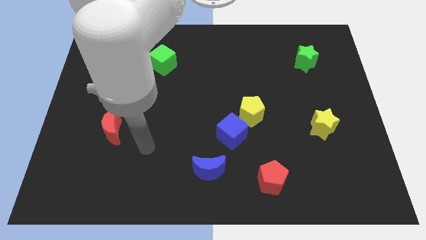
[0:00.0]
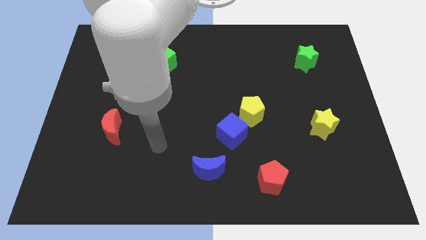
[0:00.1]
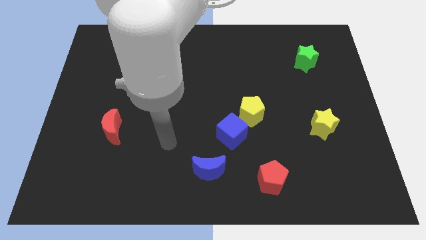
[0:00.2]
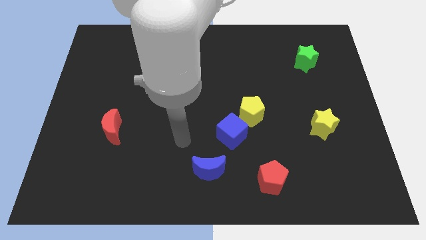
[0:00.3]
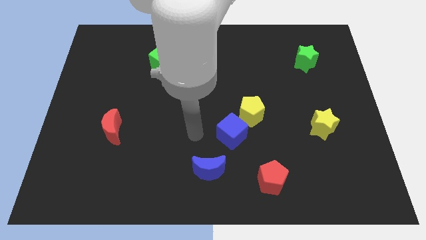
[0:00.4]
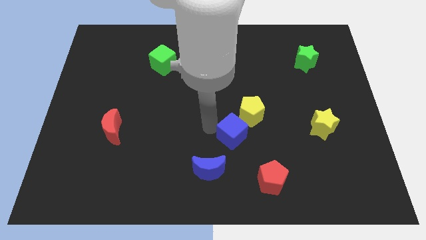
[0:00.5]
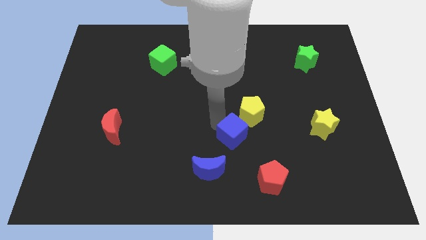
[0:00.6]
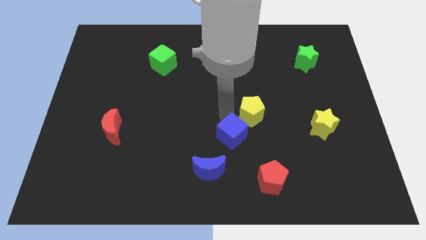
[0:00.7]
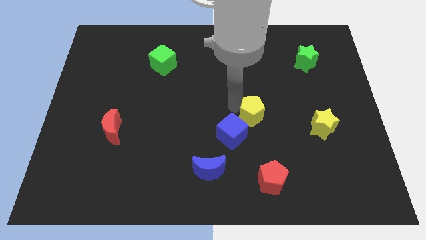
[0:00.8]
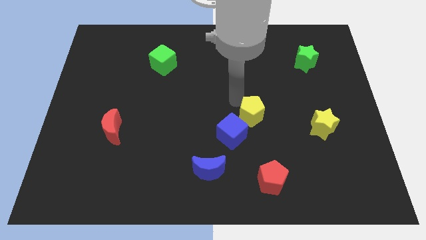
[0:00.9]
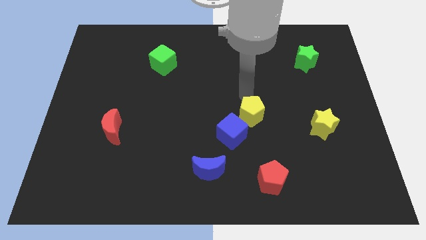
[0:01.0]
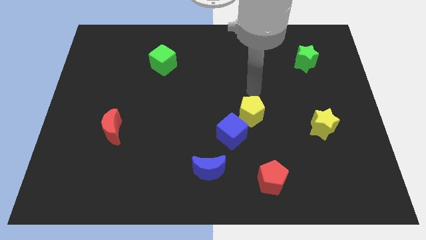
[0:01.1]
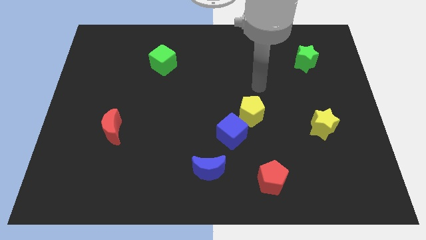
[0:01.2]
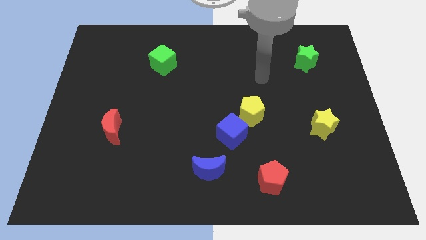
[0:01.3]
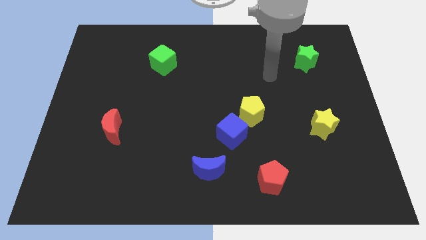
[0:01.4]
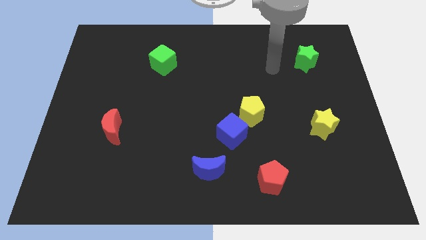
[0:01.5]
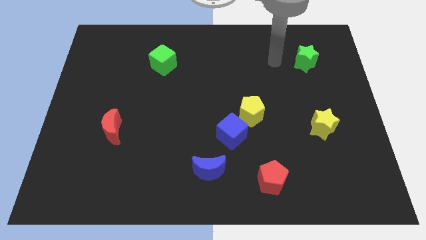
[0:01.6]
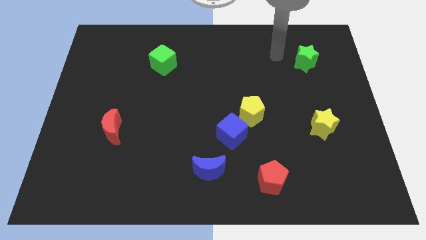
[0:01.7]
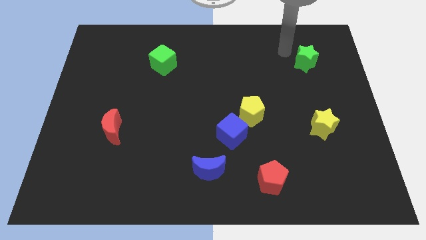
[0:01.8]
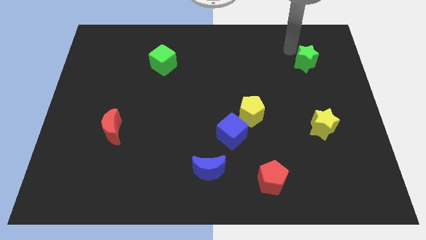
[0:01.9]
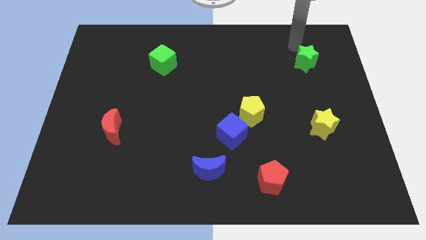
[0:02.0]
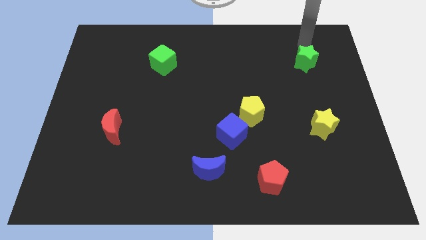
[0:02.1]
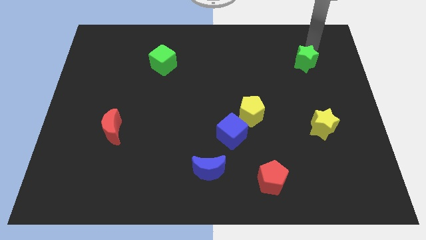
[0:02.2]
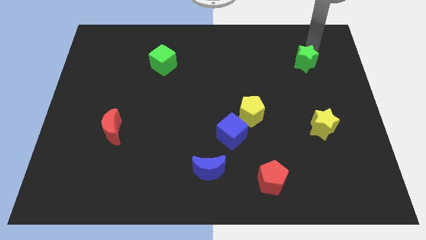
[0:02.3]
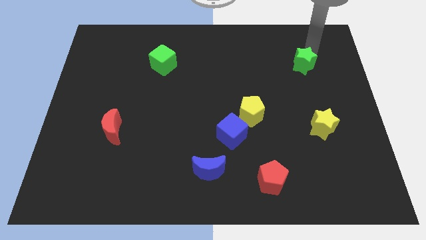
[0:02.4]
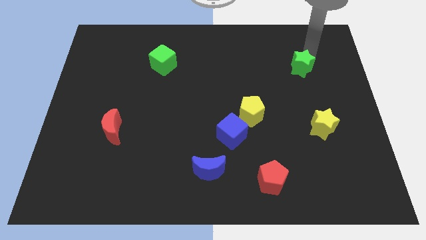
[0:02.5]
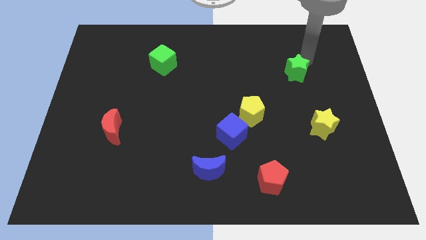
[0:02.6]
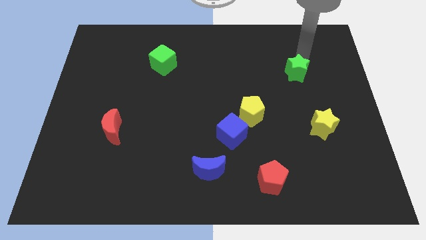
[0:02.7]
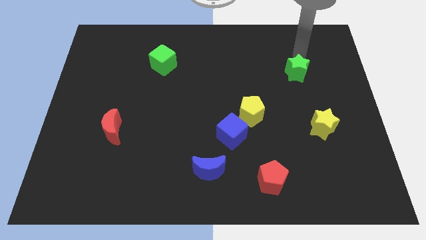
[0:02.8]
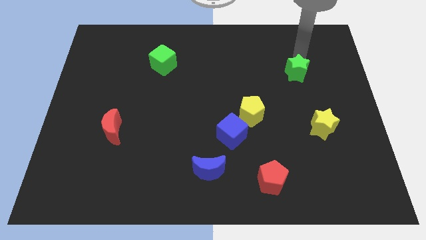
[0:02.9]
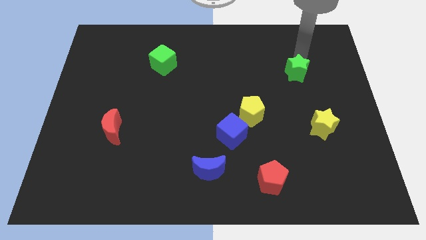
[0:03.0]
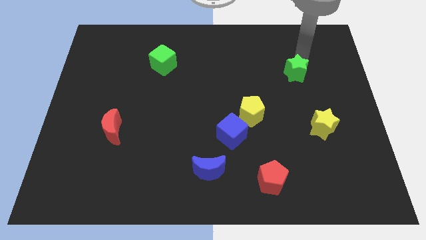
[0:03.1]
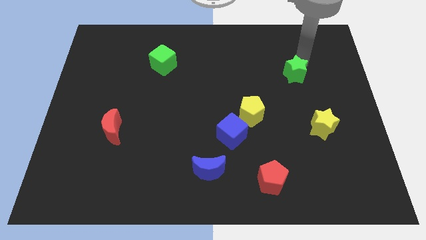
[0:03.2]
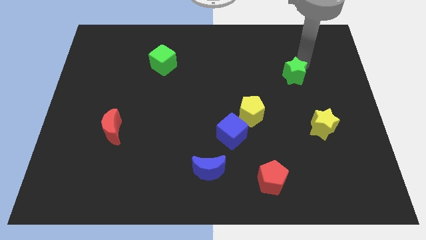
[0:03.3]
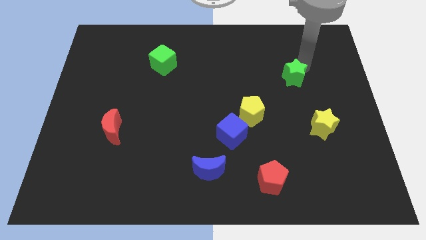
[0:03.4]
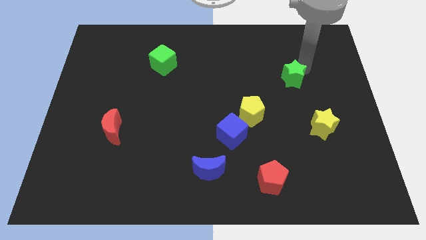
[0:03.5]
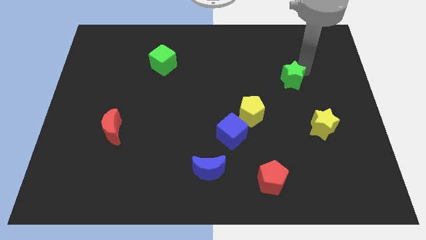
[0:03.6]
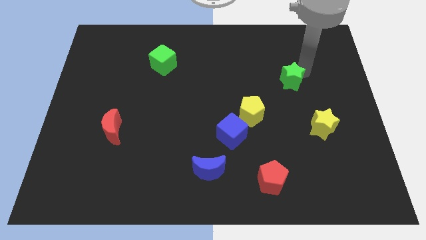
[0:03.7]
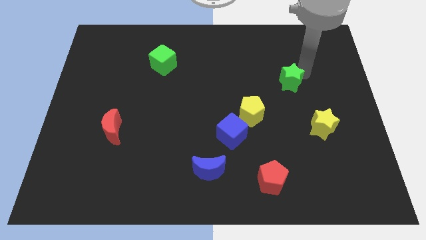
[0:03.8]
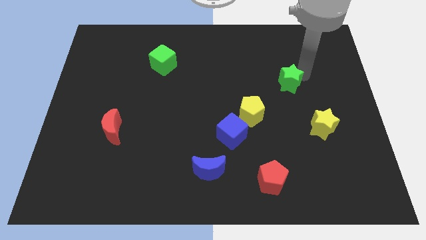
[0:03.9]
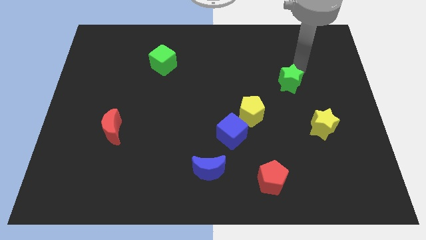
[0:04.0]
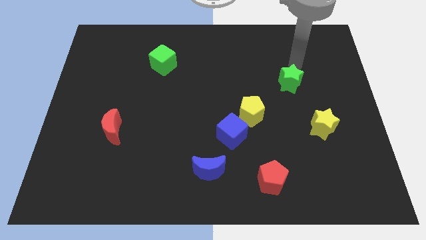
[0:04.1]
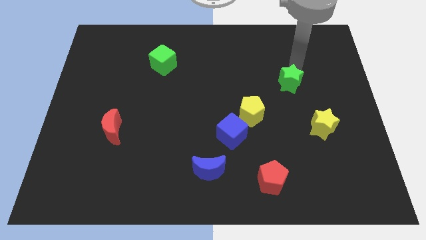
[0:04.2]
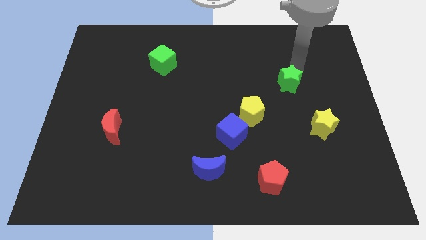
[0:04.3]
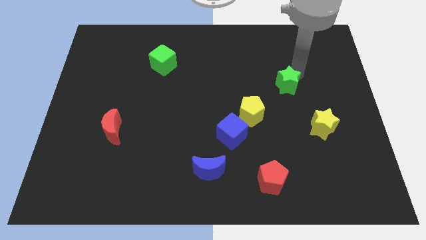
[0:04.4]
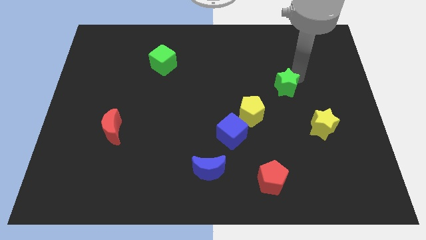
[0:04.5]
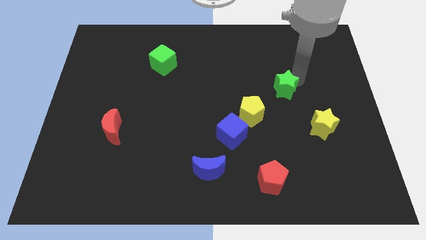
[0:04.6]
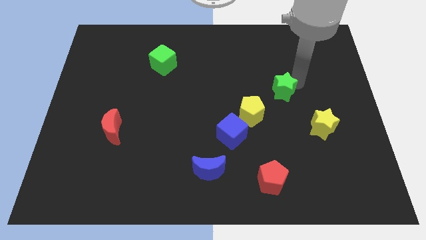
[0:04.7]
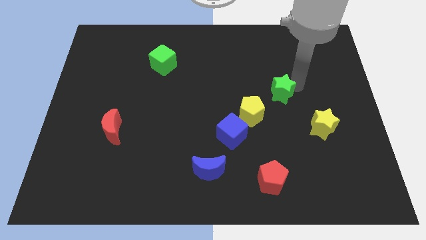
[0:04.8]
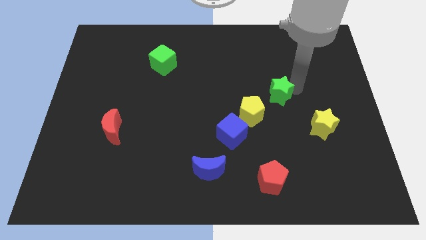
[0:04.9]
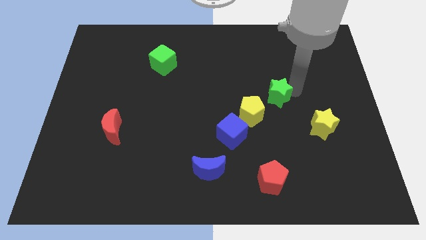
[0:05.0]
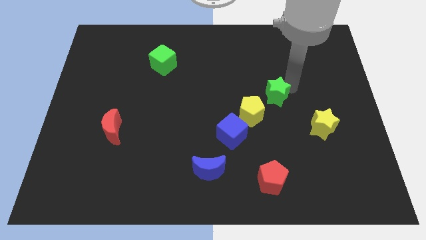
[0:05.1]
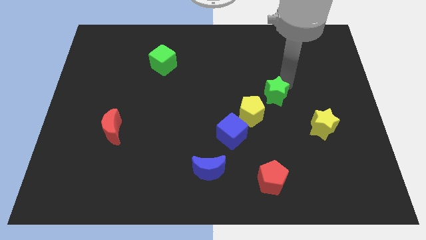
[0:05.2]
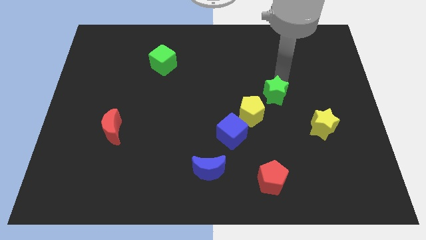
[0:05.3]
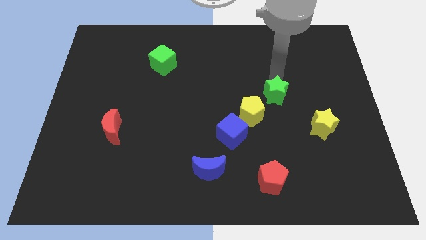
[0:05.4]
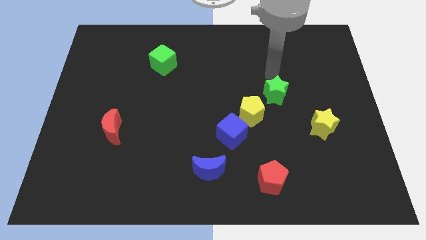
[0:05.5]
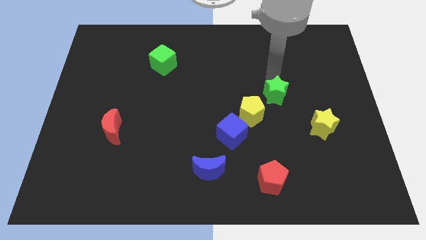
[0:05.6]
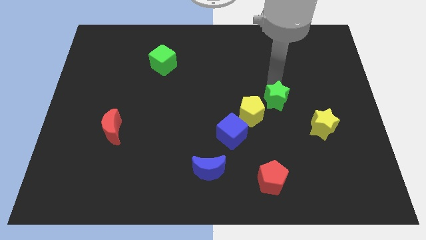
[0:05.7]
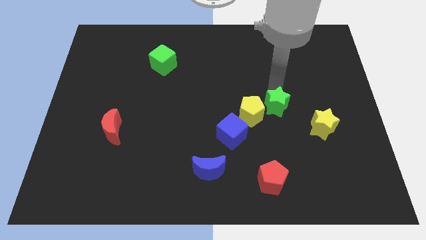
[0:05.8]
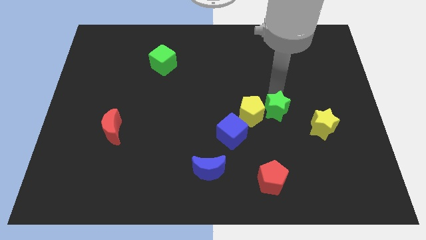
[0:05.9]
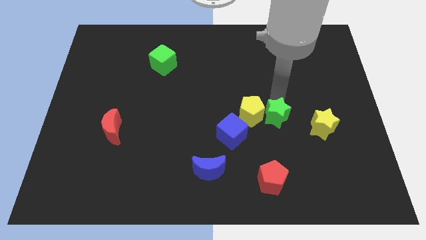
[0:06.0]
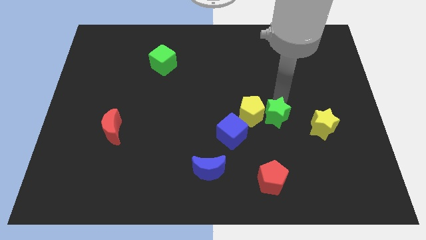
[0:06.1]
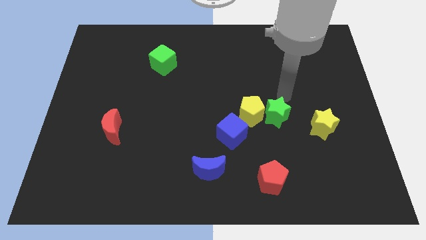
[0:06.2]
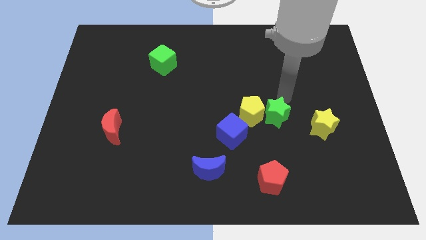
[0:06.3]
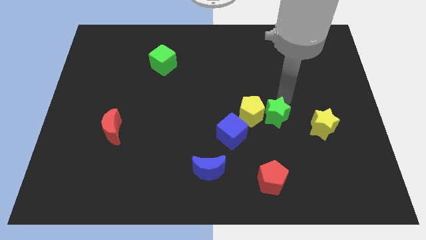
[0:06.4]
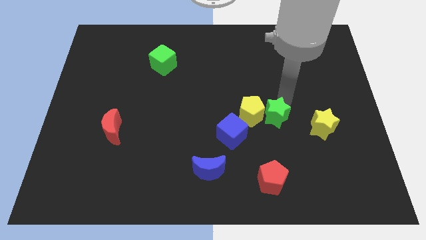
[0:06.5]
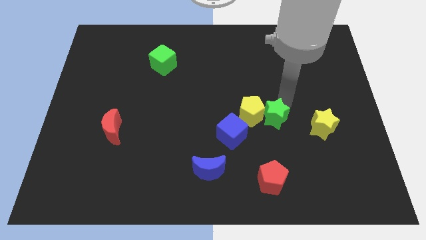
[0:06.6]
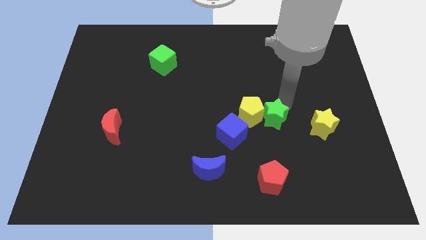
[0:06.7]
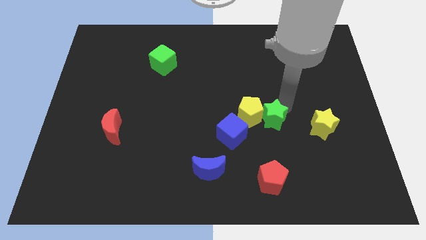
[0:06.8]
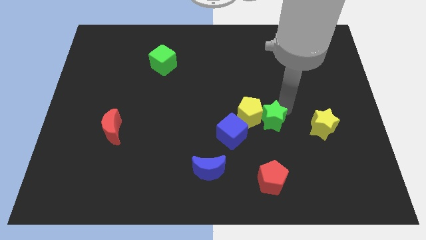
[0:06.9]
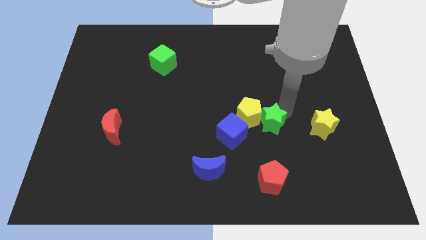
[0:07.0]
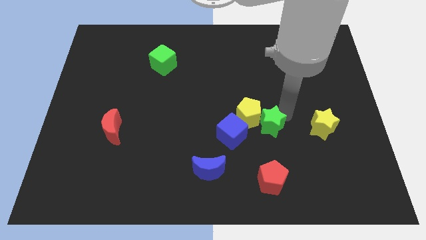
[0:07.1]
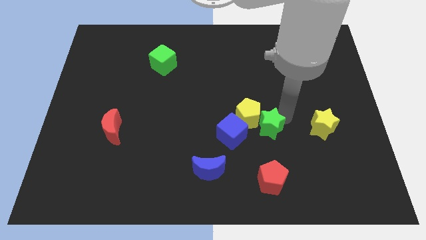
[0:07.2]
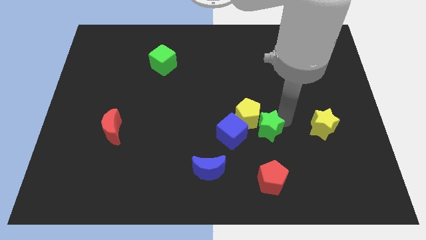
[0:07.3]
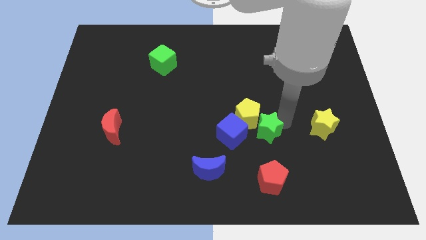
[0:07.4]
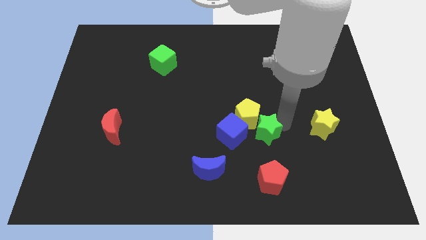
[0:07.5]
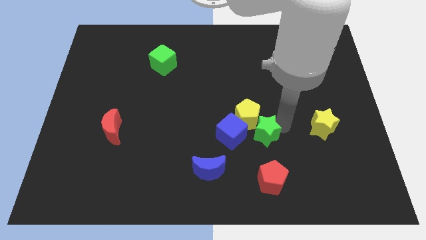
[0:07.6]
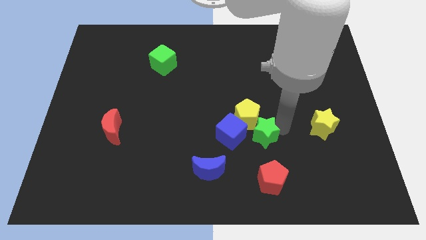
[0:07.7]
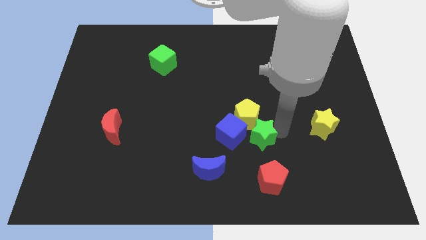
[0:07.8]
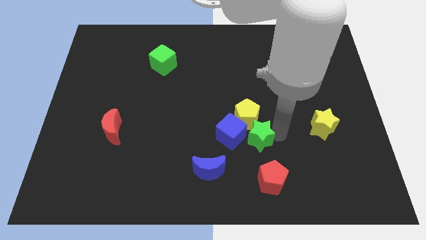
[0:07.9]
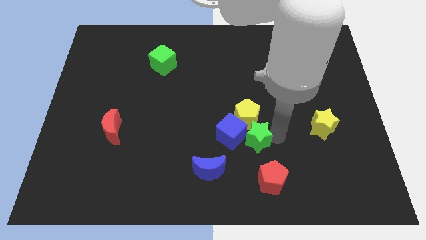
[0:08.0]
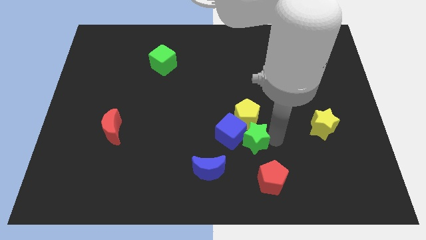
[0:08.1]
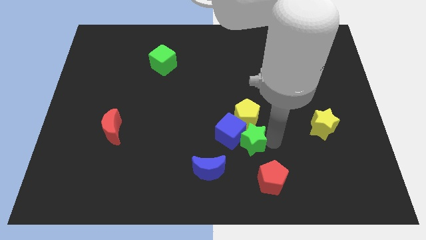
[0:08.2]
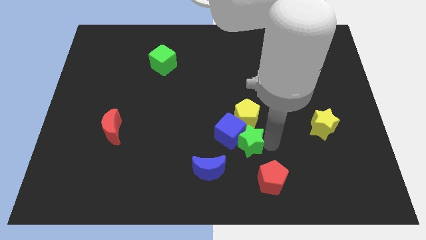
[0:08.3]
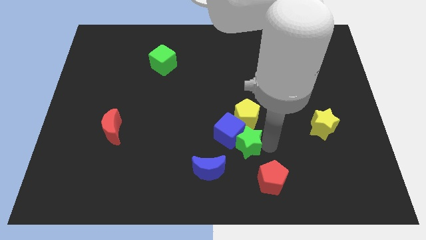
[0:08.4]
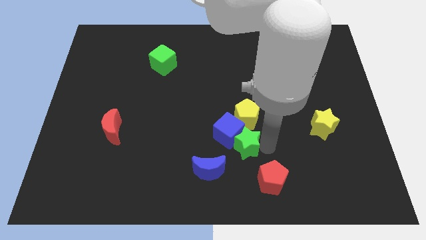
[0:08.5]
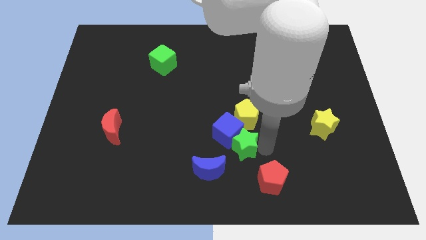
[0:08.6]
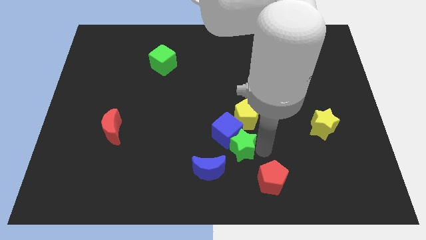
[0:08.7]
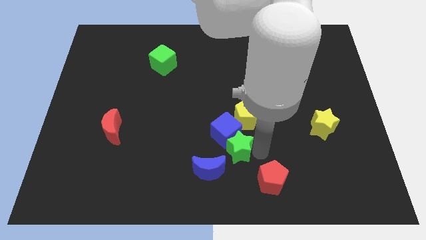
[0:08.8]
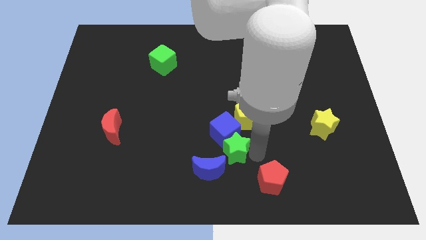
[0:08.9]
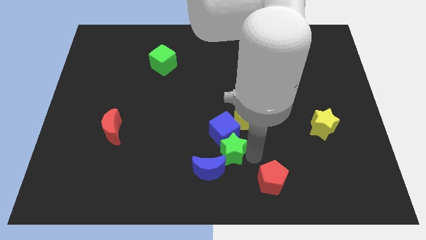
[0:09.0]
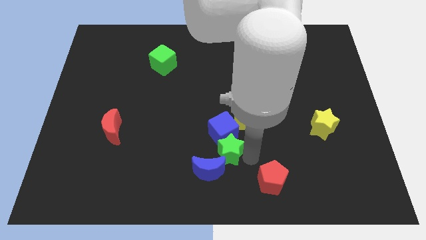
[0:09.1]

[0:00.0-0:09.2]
push the green star close to the blue moon
